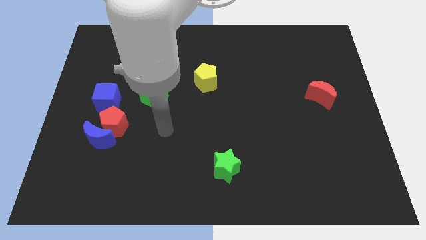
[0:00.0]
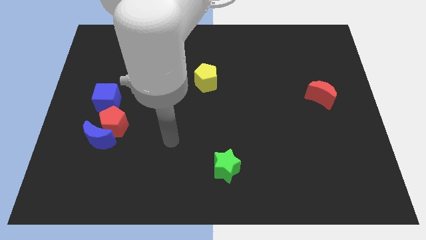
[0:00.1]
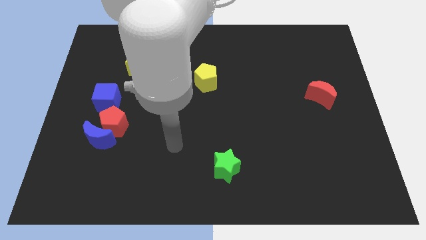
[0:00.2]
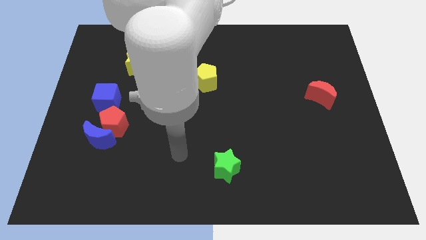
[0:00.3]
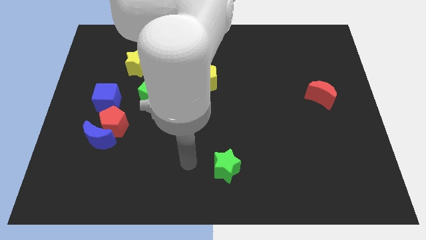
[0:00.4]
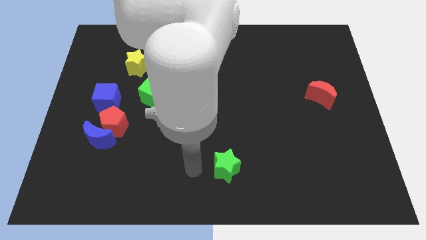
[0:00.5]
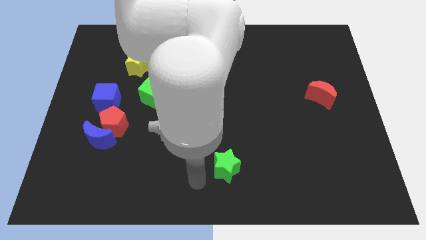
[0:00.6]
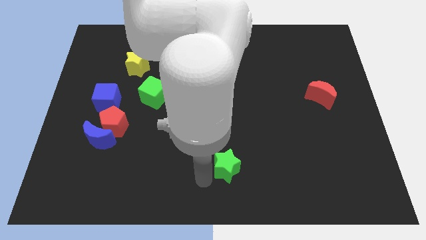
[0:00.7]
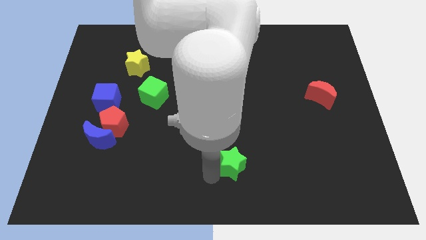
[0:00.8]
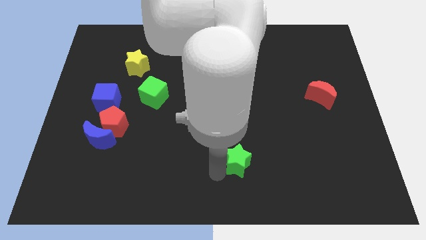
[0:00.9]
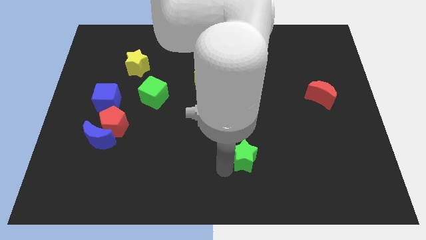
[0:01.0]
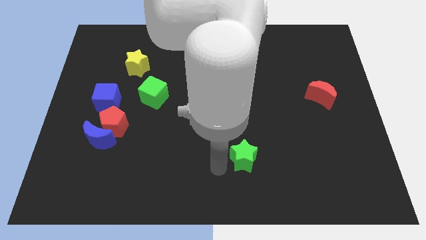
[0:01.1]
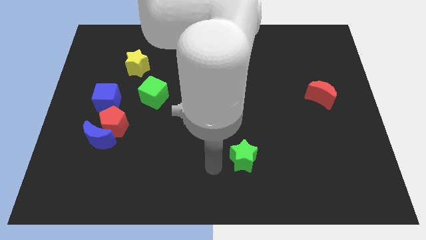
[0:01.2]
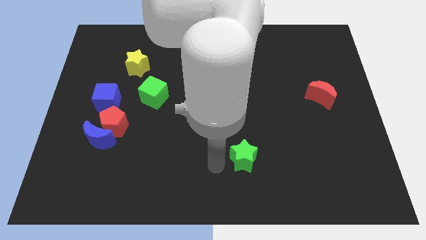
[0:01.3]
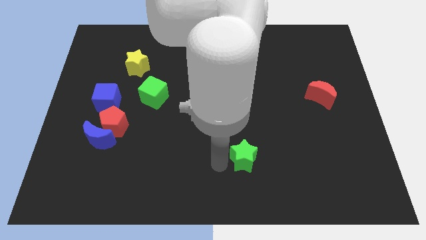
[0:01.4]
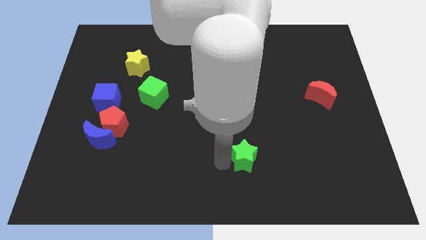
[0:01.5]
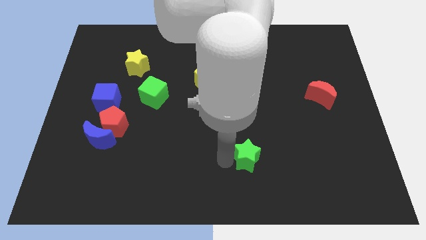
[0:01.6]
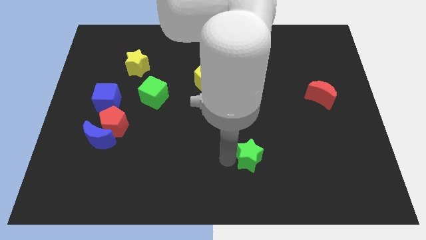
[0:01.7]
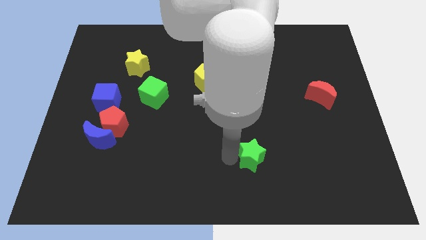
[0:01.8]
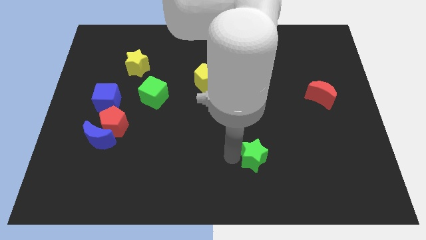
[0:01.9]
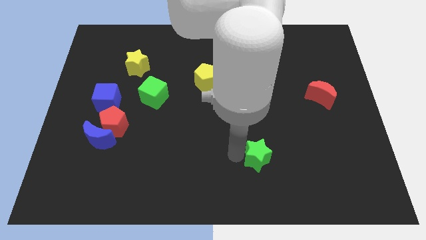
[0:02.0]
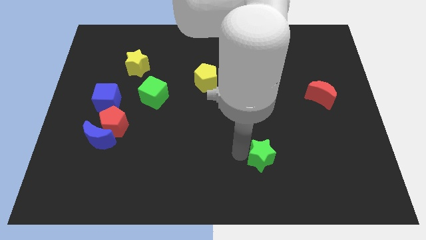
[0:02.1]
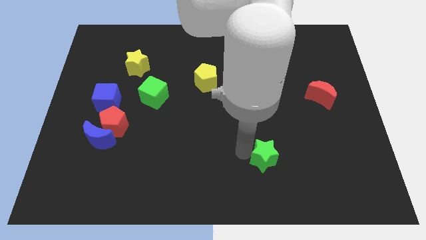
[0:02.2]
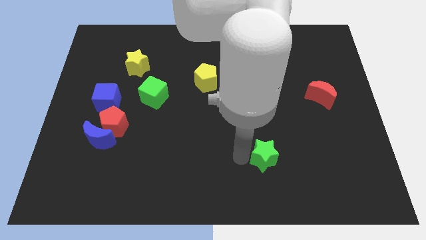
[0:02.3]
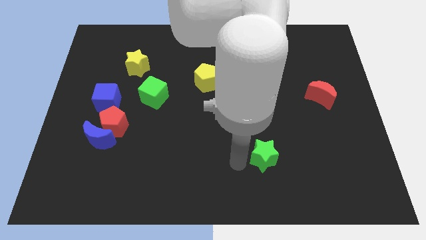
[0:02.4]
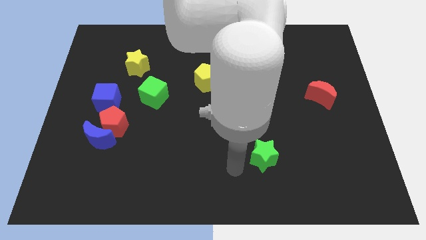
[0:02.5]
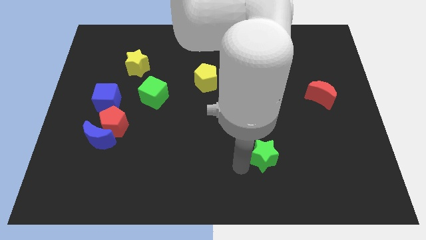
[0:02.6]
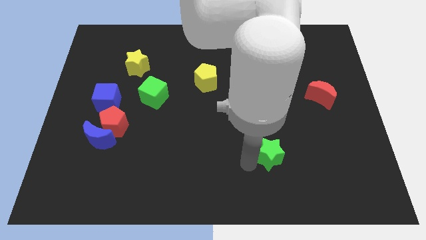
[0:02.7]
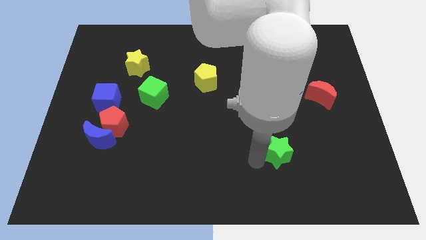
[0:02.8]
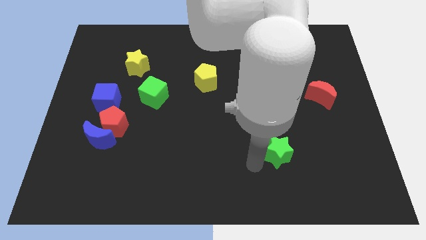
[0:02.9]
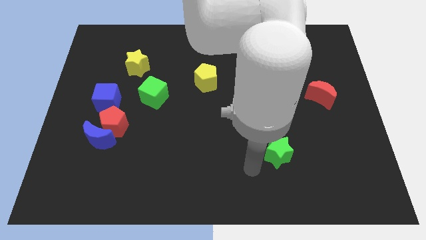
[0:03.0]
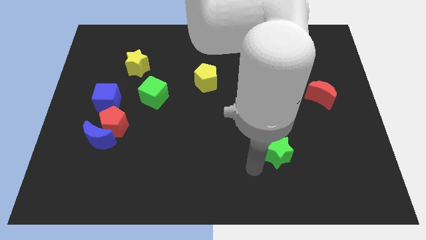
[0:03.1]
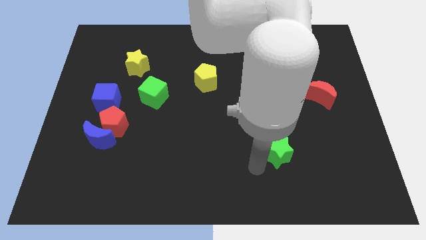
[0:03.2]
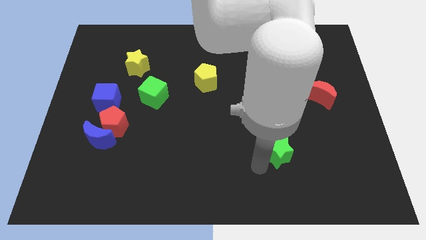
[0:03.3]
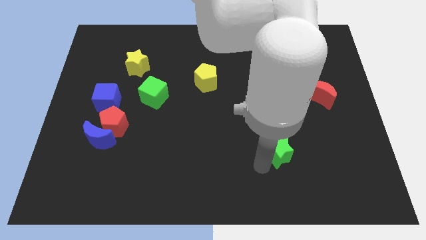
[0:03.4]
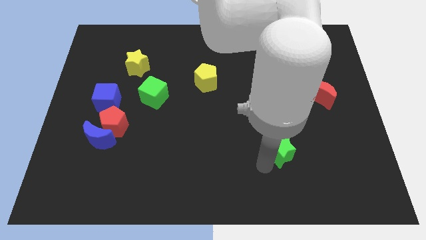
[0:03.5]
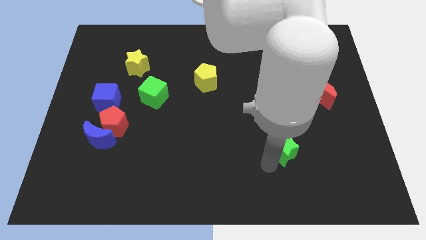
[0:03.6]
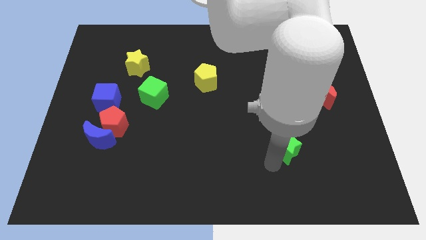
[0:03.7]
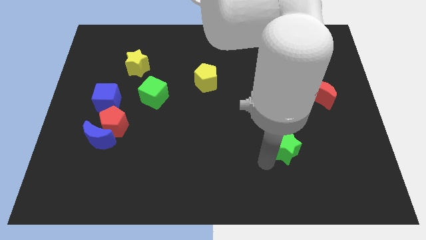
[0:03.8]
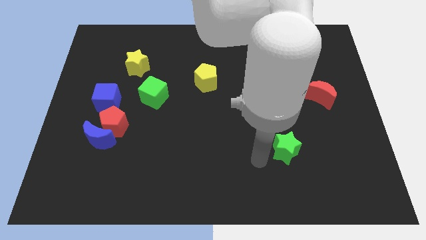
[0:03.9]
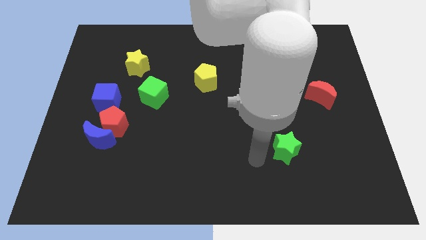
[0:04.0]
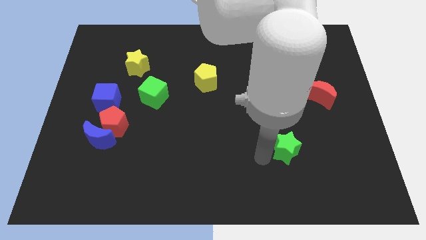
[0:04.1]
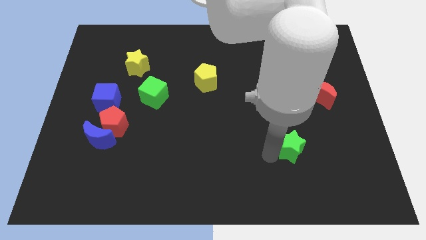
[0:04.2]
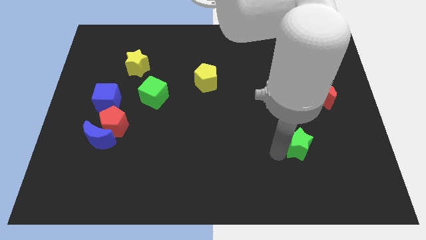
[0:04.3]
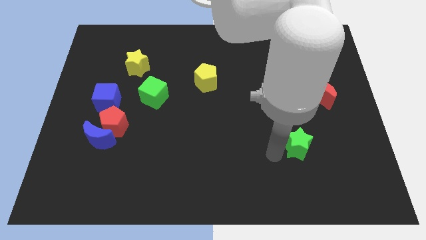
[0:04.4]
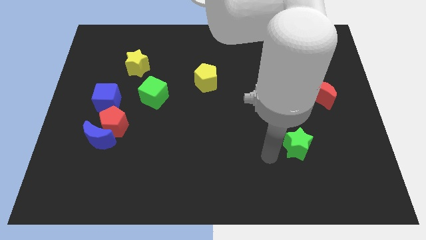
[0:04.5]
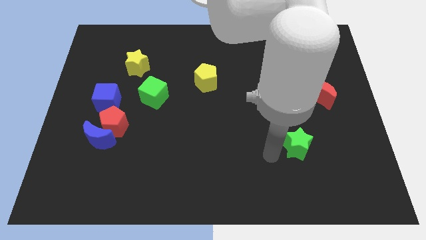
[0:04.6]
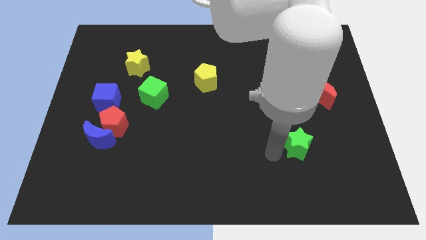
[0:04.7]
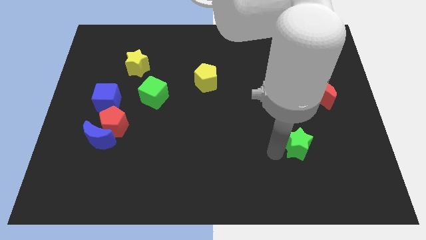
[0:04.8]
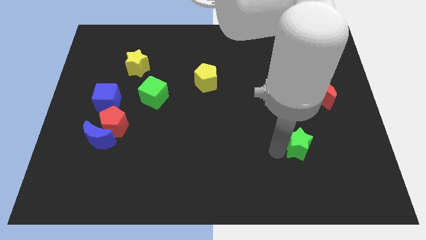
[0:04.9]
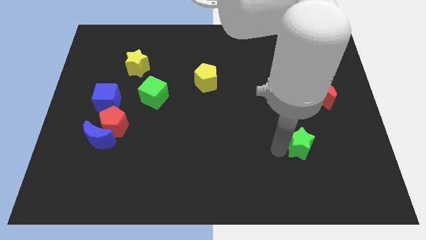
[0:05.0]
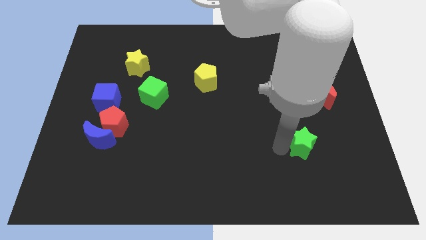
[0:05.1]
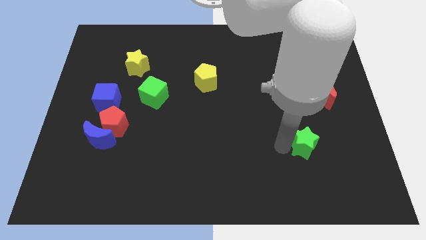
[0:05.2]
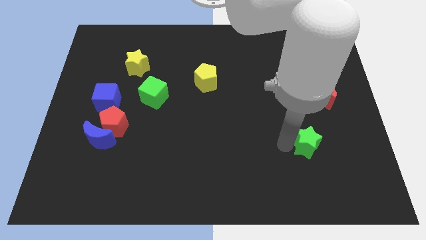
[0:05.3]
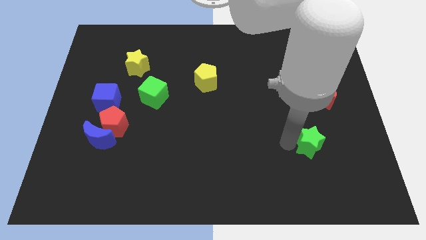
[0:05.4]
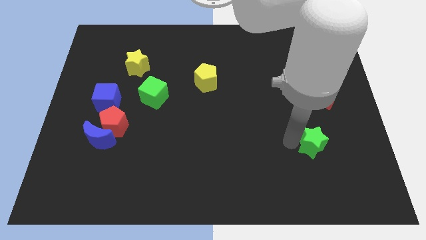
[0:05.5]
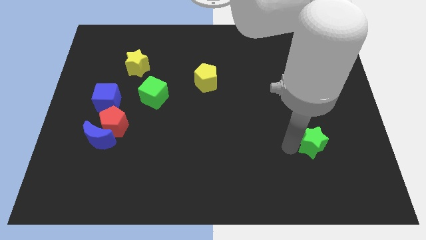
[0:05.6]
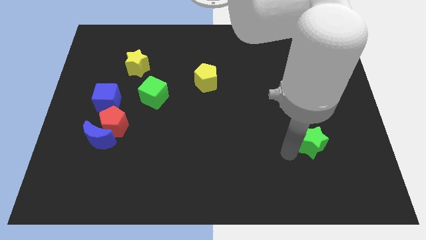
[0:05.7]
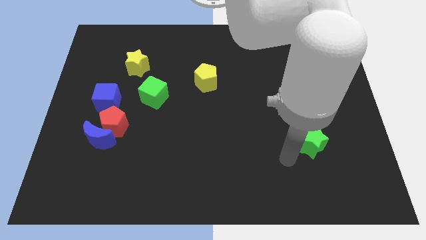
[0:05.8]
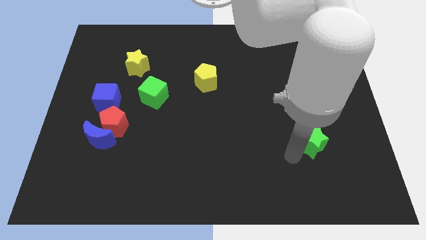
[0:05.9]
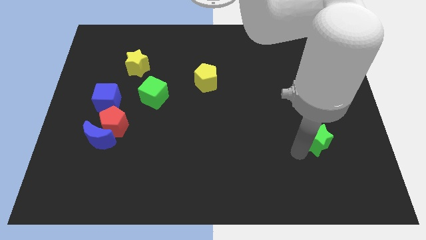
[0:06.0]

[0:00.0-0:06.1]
push the green star to the bottom side of the red moon

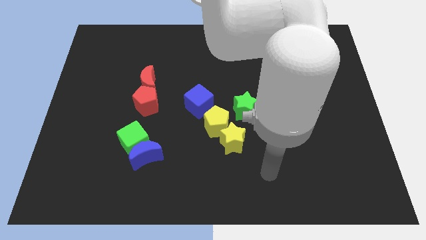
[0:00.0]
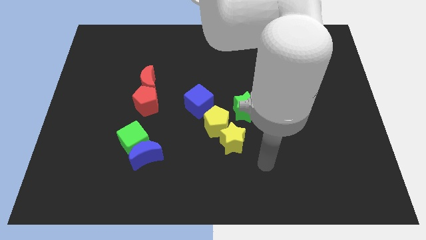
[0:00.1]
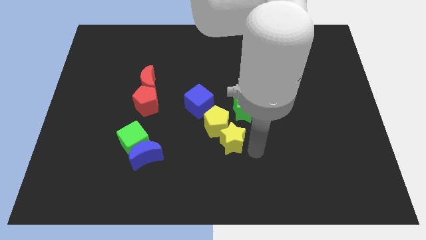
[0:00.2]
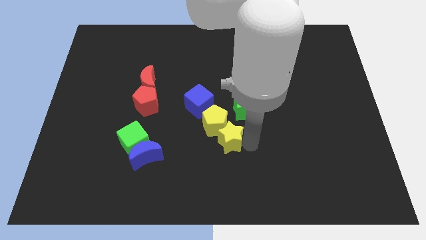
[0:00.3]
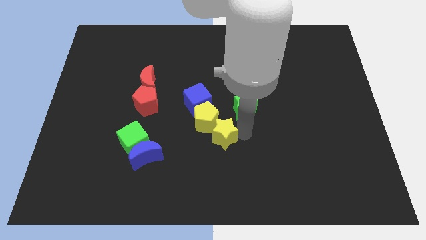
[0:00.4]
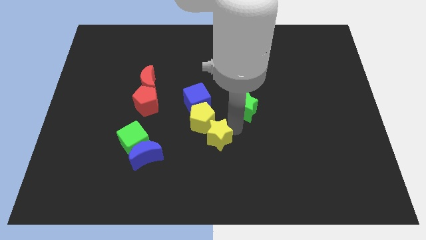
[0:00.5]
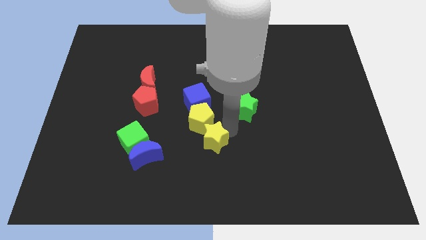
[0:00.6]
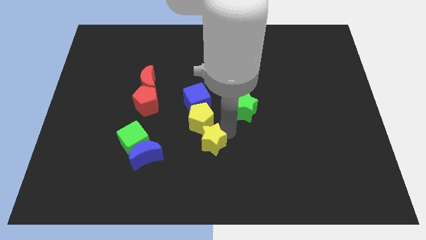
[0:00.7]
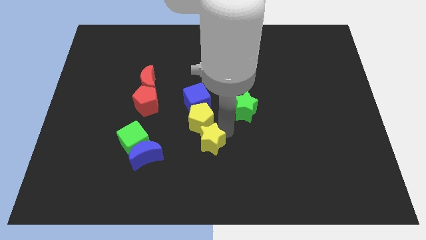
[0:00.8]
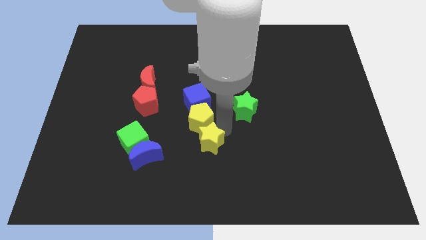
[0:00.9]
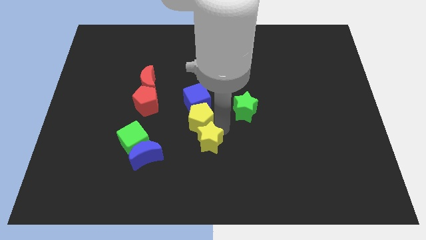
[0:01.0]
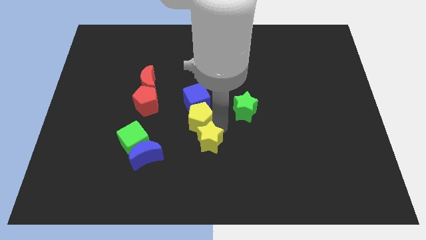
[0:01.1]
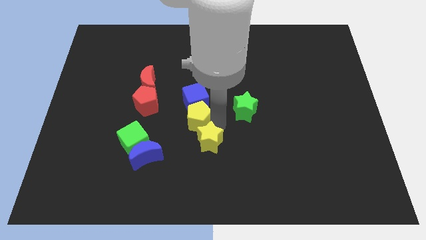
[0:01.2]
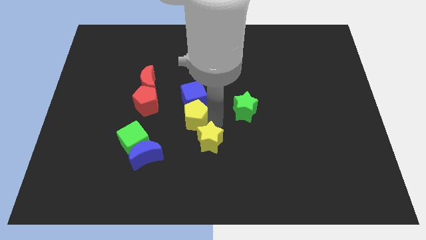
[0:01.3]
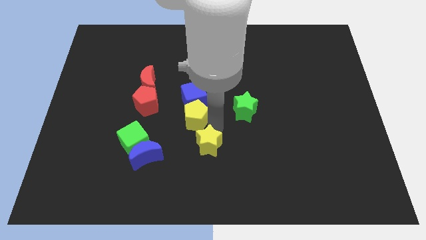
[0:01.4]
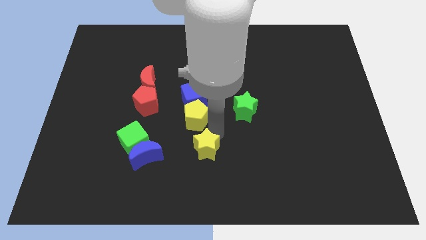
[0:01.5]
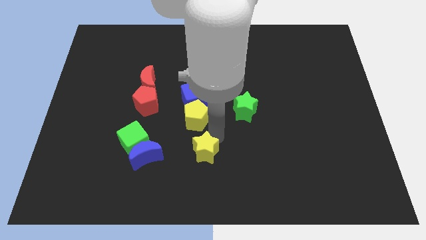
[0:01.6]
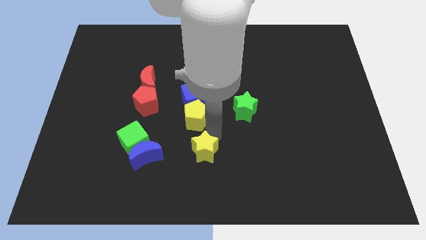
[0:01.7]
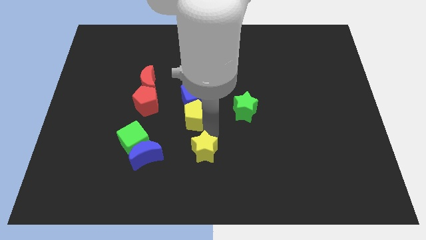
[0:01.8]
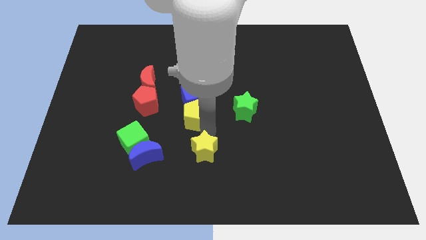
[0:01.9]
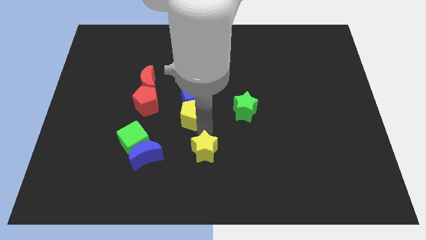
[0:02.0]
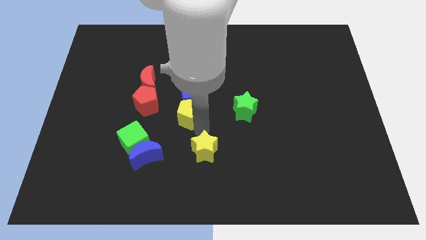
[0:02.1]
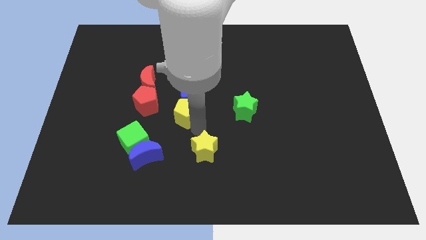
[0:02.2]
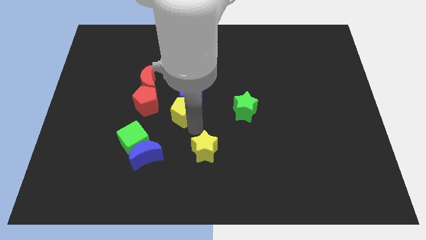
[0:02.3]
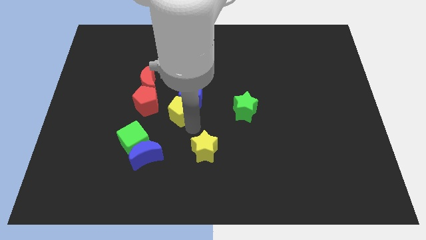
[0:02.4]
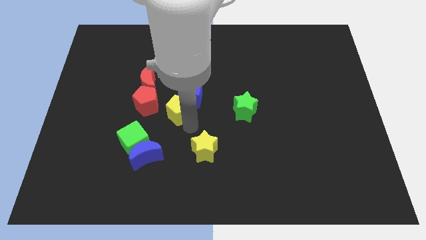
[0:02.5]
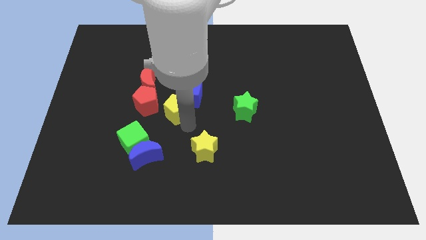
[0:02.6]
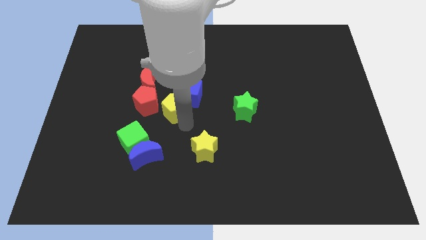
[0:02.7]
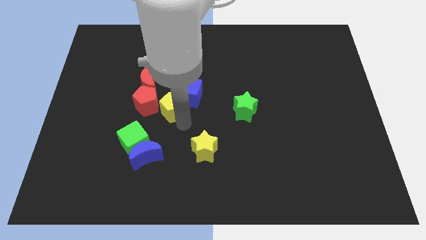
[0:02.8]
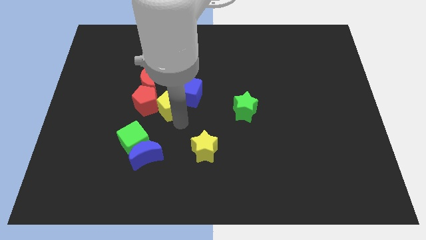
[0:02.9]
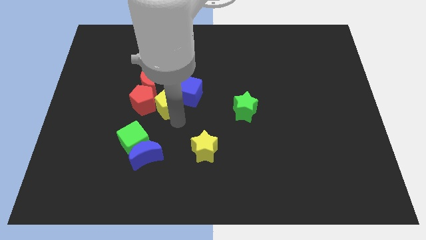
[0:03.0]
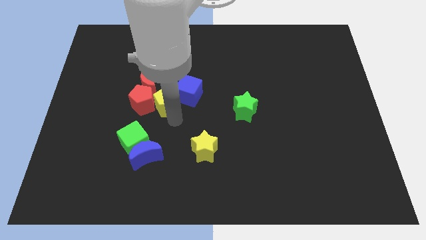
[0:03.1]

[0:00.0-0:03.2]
move the yellow pentagon diagonally up and to the right of the red pentagon
